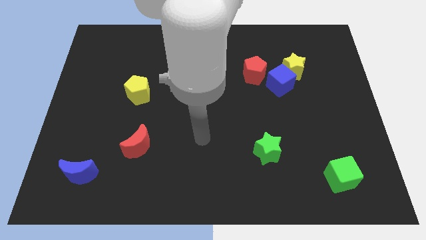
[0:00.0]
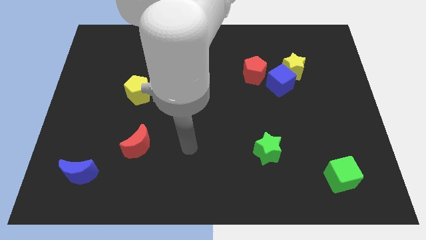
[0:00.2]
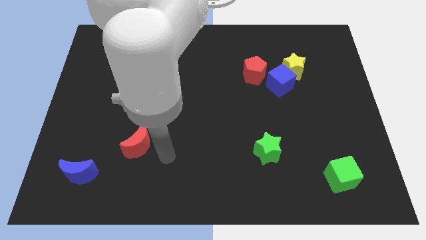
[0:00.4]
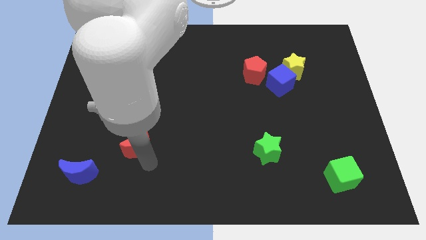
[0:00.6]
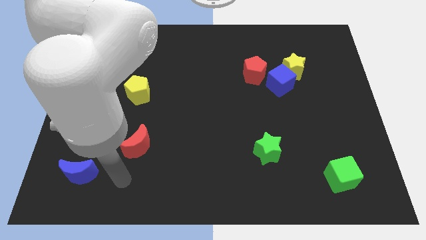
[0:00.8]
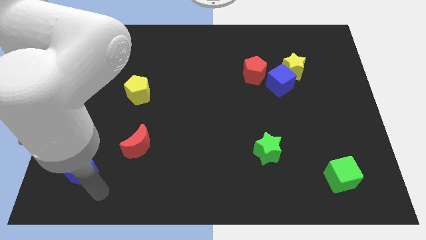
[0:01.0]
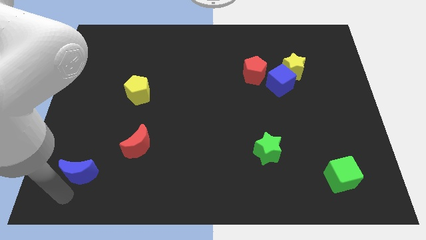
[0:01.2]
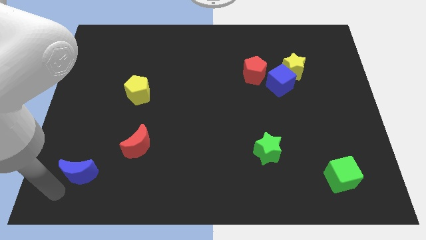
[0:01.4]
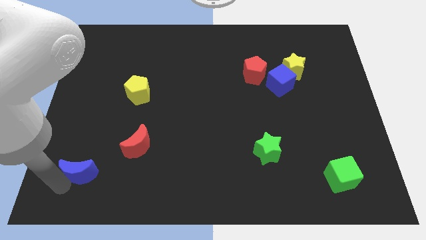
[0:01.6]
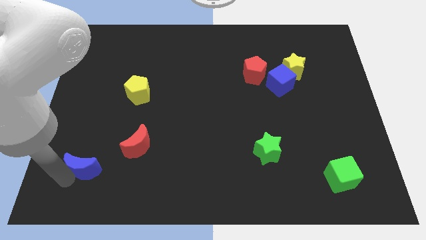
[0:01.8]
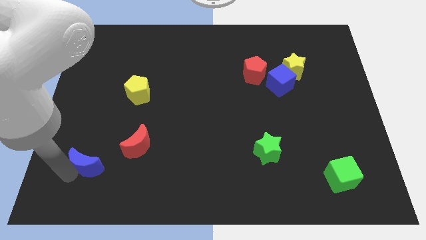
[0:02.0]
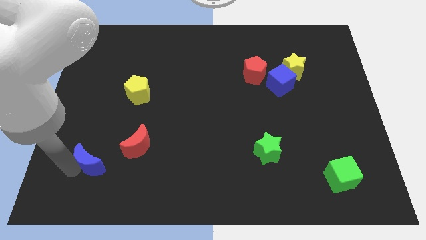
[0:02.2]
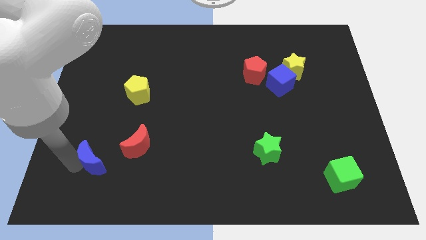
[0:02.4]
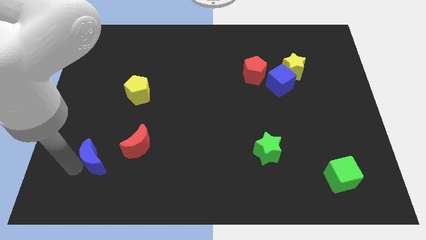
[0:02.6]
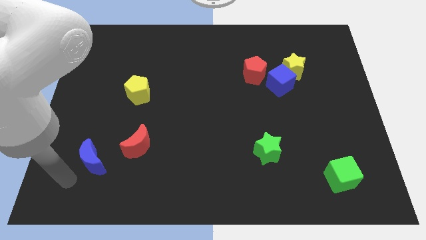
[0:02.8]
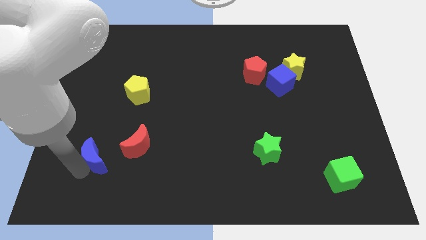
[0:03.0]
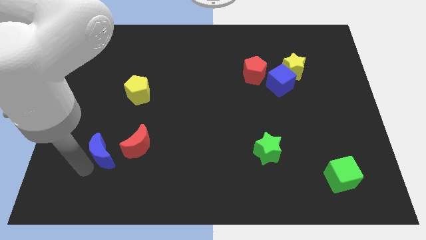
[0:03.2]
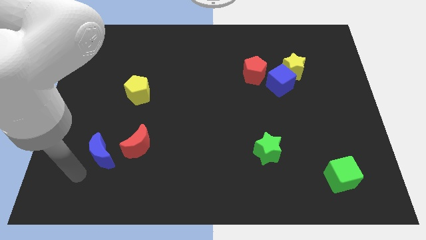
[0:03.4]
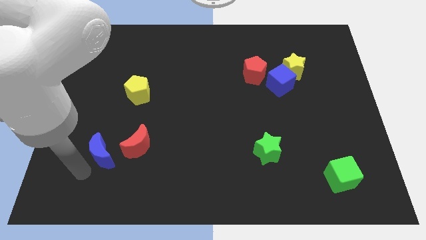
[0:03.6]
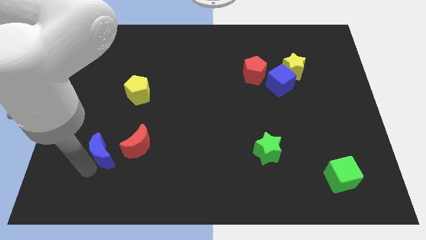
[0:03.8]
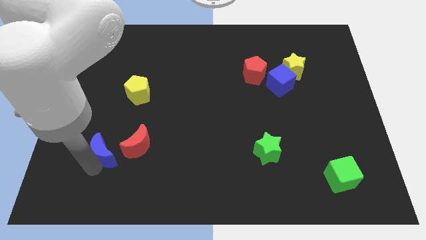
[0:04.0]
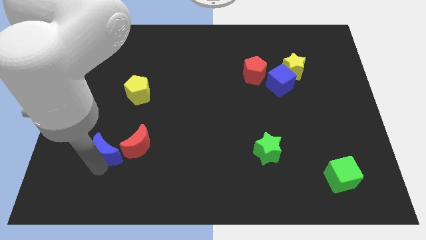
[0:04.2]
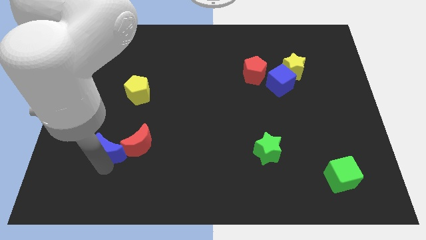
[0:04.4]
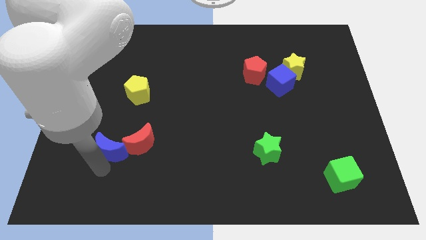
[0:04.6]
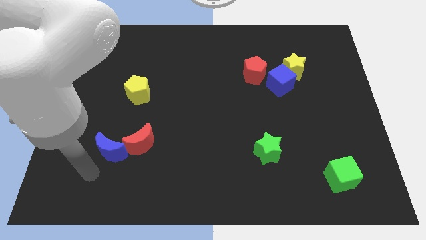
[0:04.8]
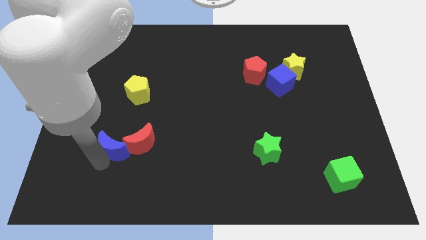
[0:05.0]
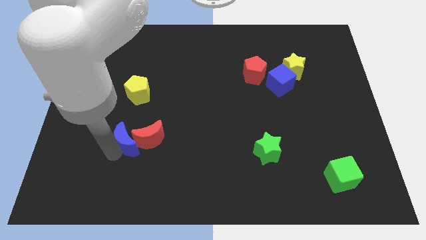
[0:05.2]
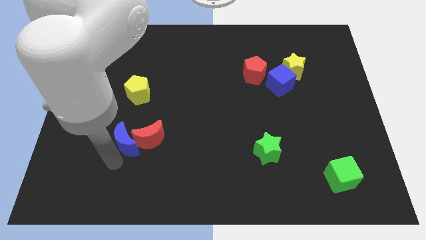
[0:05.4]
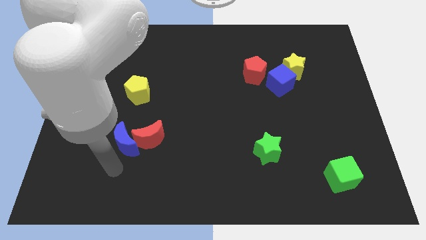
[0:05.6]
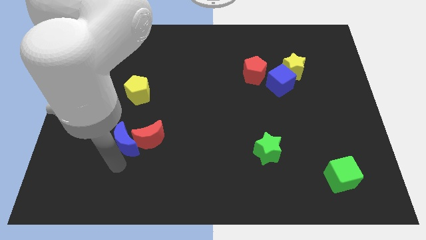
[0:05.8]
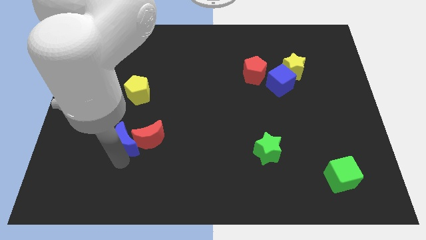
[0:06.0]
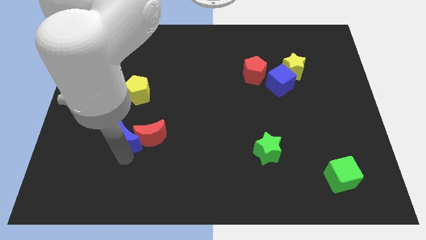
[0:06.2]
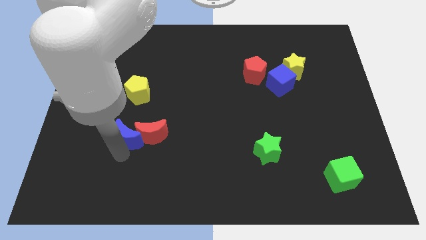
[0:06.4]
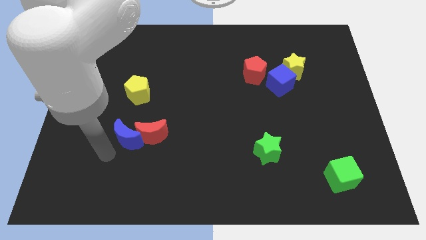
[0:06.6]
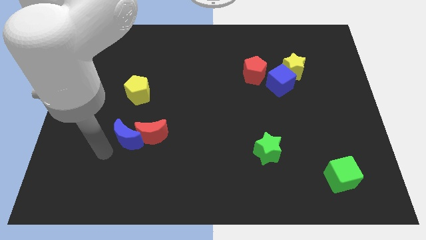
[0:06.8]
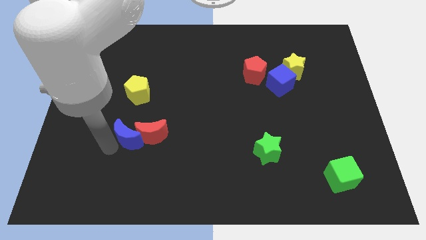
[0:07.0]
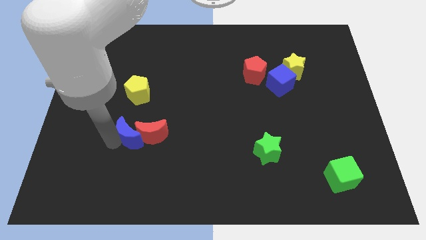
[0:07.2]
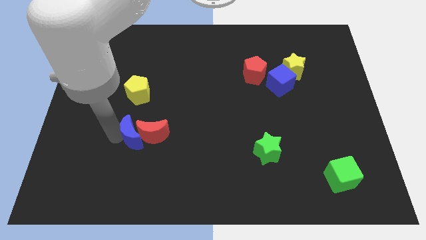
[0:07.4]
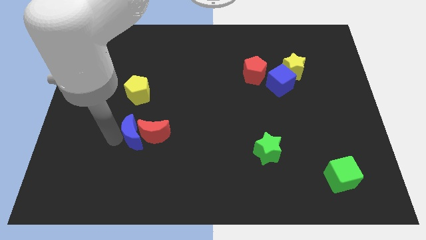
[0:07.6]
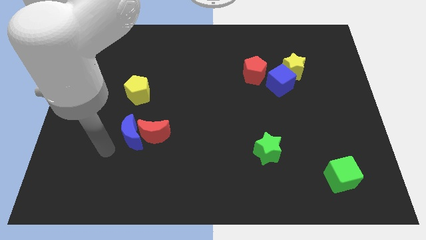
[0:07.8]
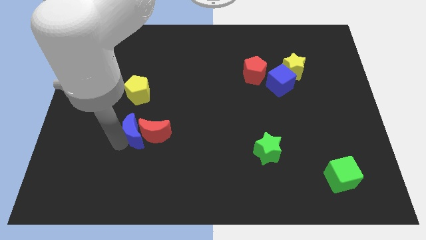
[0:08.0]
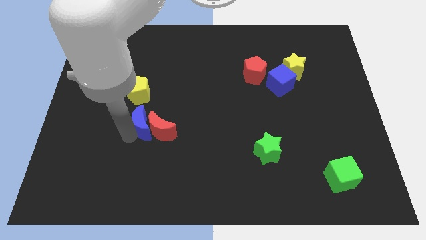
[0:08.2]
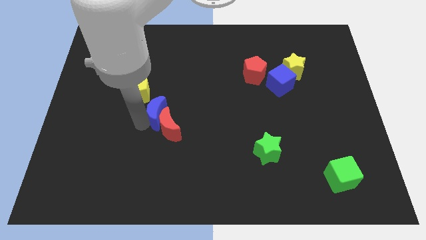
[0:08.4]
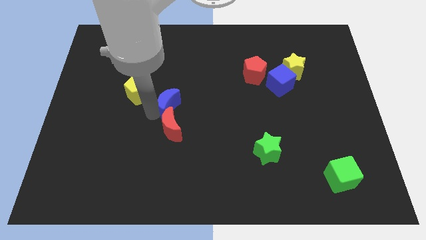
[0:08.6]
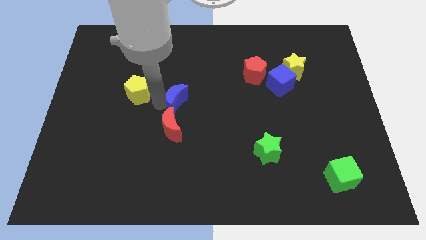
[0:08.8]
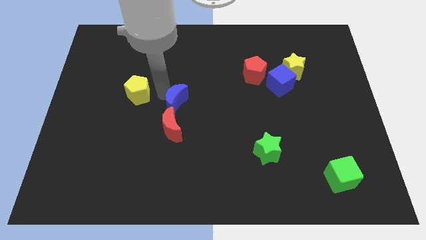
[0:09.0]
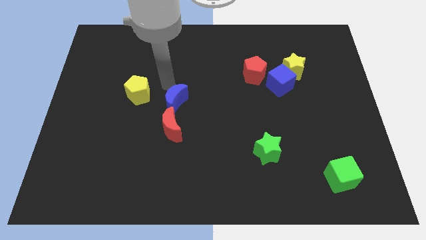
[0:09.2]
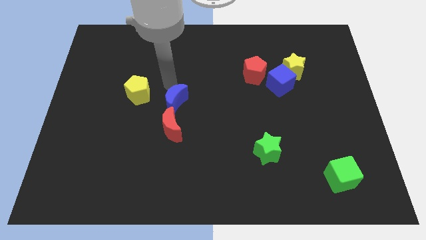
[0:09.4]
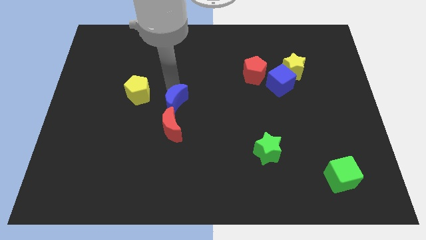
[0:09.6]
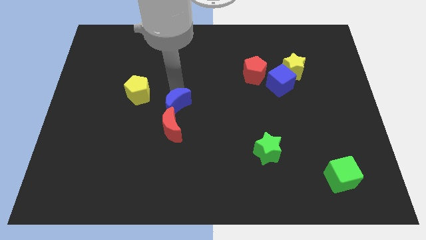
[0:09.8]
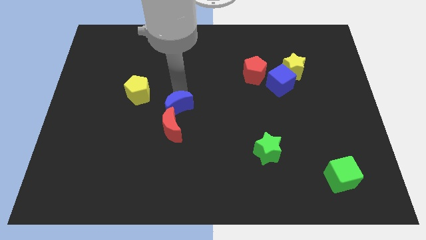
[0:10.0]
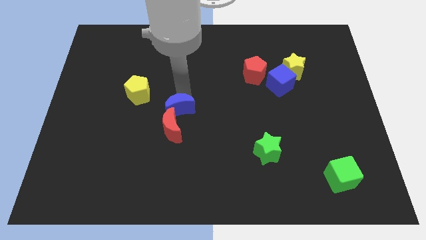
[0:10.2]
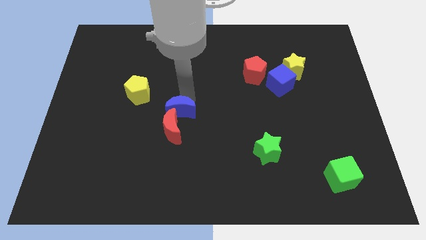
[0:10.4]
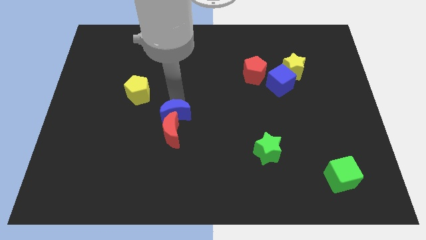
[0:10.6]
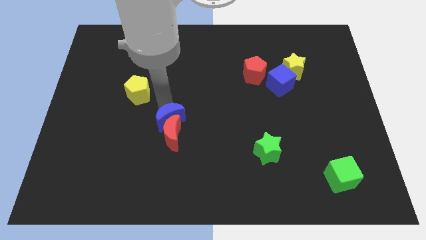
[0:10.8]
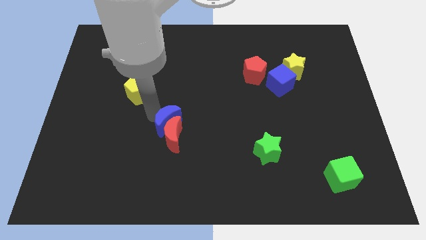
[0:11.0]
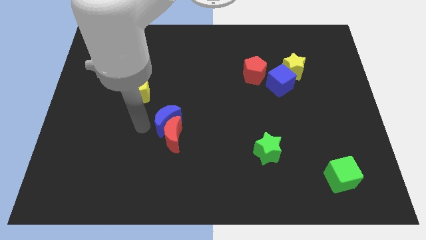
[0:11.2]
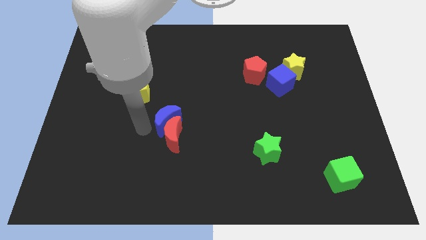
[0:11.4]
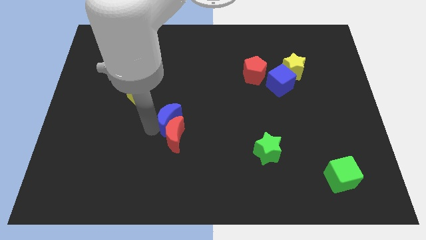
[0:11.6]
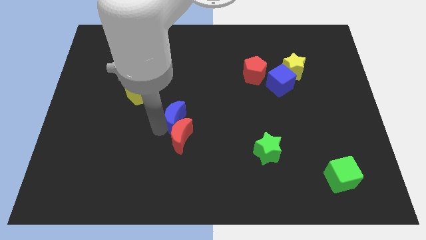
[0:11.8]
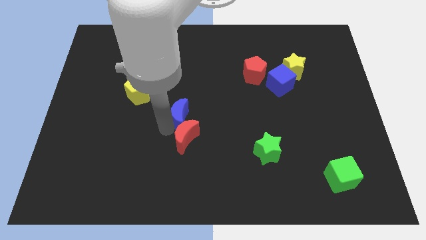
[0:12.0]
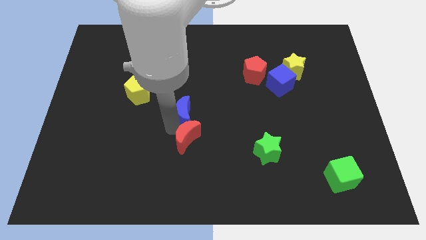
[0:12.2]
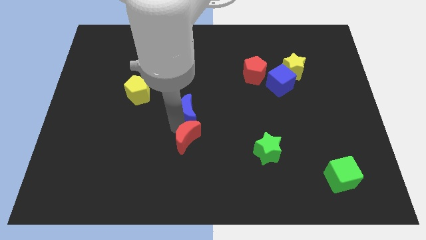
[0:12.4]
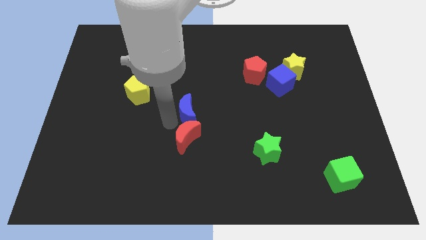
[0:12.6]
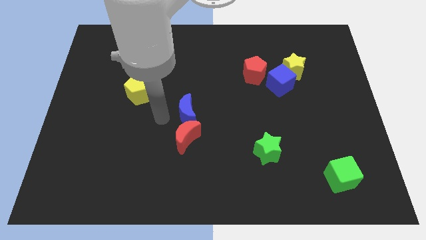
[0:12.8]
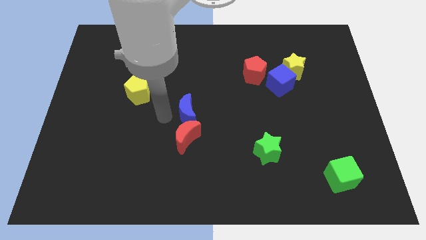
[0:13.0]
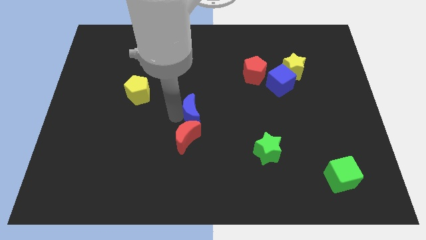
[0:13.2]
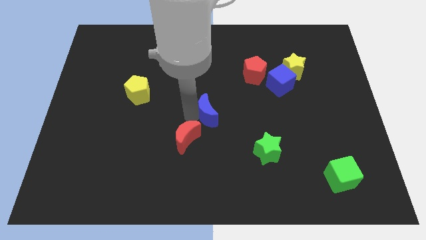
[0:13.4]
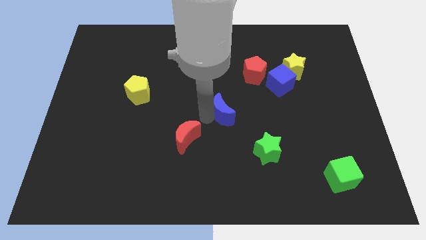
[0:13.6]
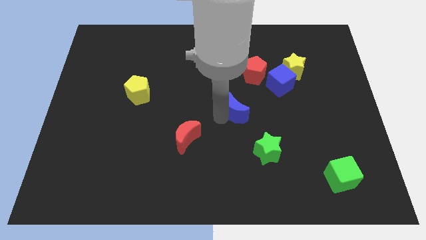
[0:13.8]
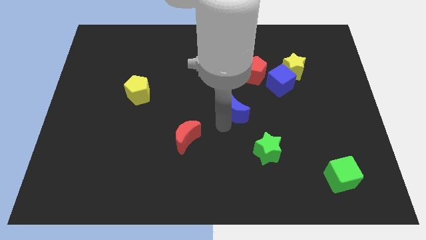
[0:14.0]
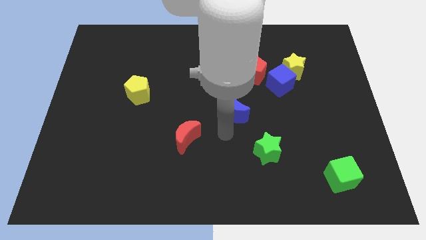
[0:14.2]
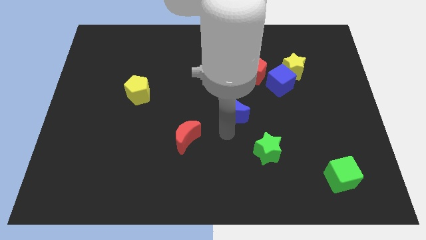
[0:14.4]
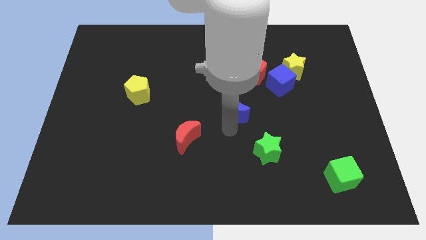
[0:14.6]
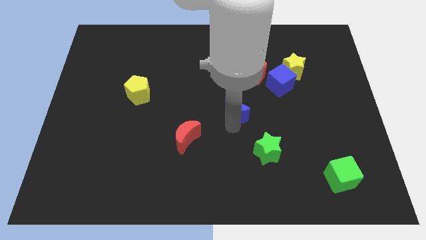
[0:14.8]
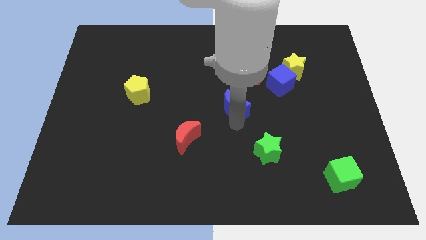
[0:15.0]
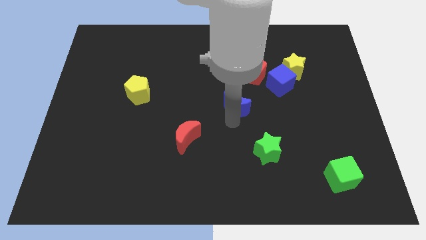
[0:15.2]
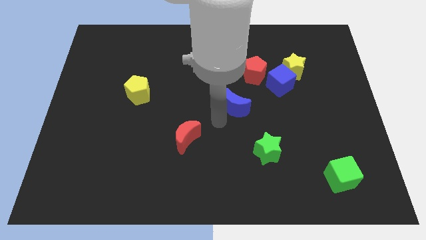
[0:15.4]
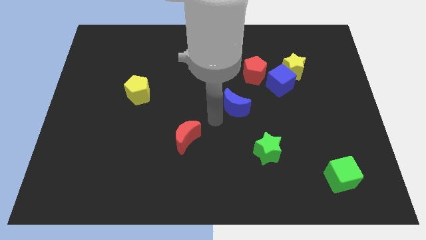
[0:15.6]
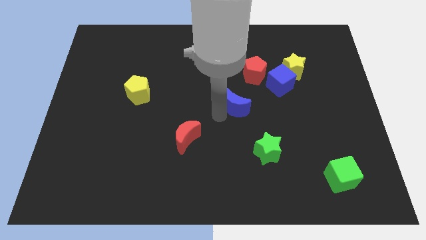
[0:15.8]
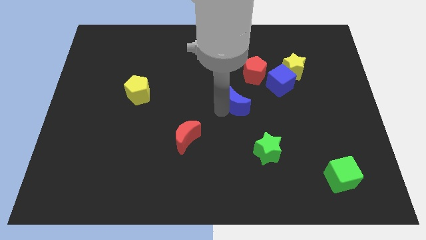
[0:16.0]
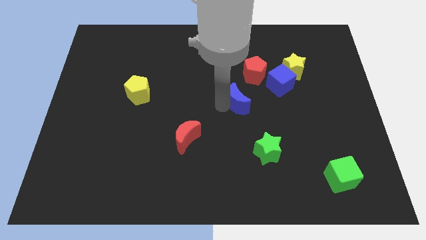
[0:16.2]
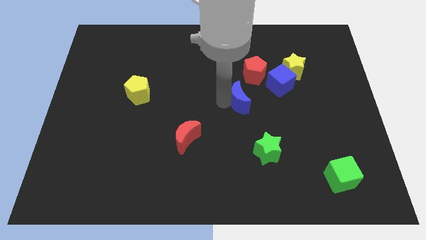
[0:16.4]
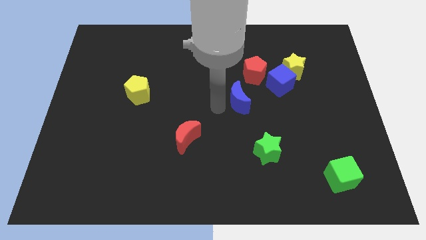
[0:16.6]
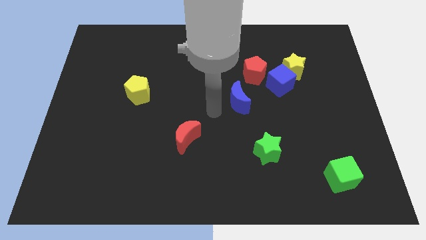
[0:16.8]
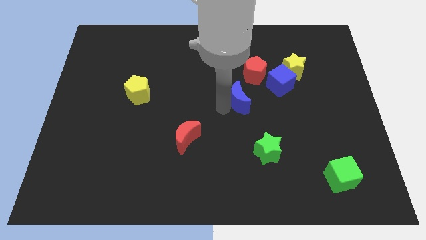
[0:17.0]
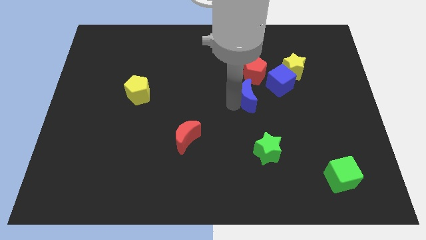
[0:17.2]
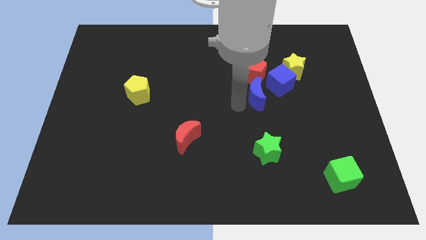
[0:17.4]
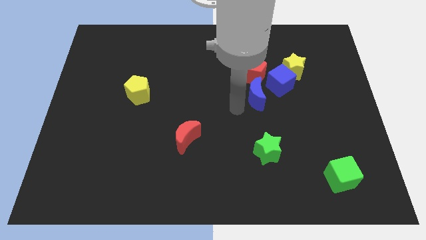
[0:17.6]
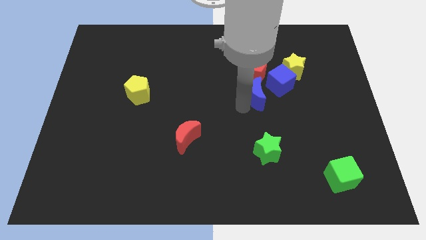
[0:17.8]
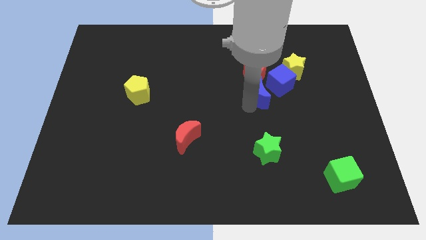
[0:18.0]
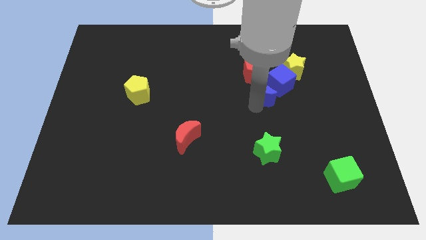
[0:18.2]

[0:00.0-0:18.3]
put the blue moon close to the blue cube
